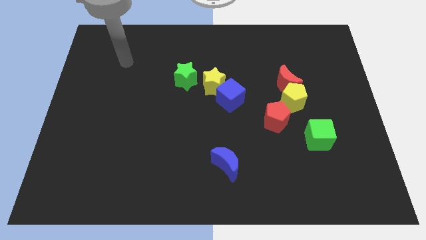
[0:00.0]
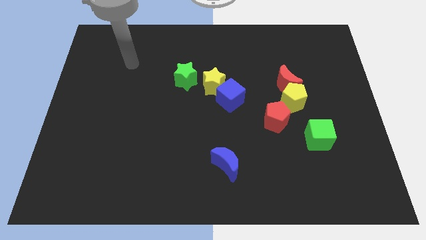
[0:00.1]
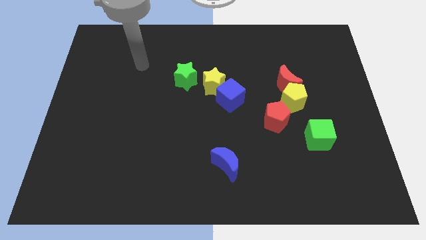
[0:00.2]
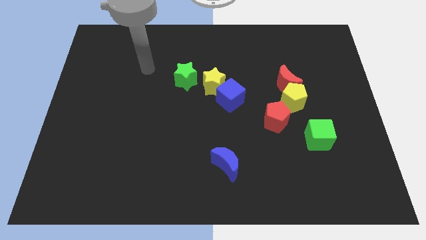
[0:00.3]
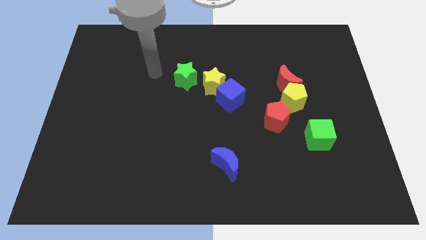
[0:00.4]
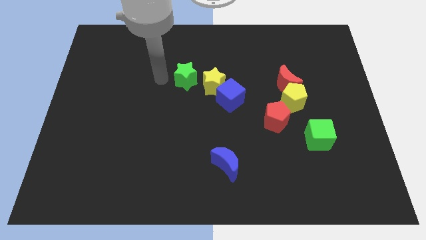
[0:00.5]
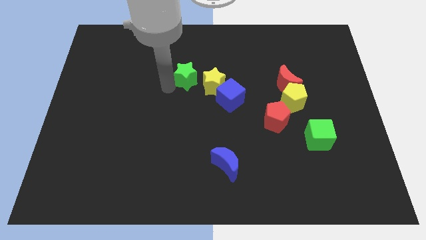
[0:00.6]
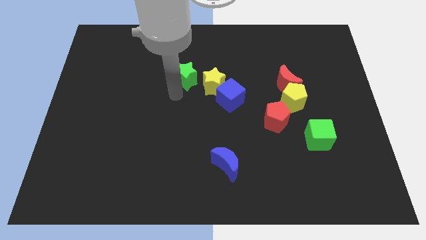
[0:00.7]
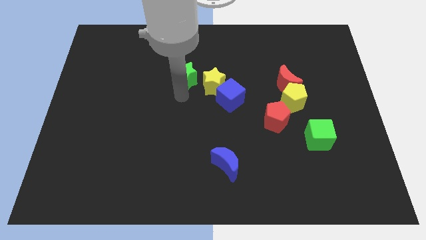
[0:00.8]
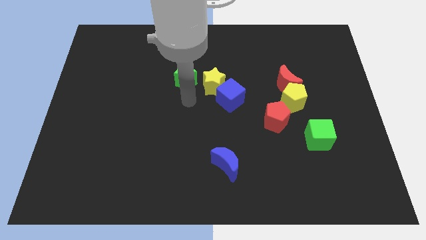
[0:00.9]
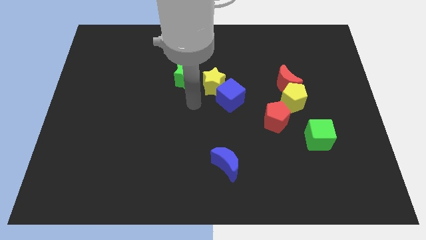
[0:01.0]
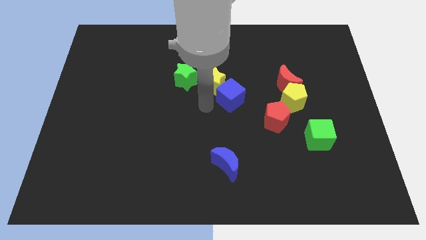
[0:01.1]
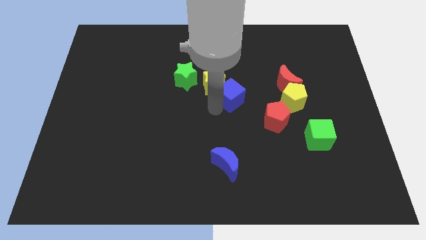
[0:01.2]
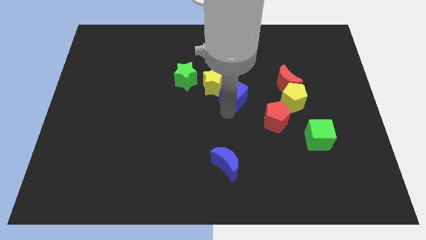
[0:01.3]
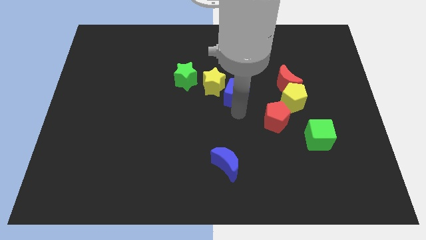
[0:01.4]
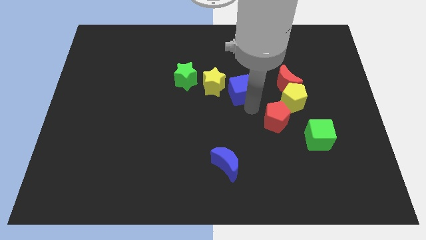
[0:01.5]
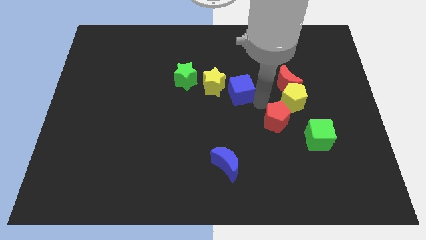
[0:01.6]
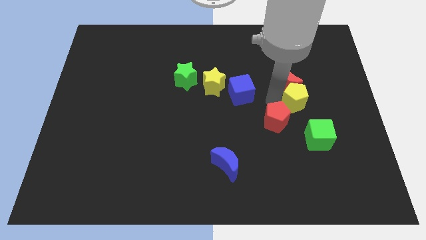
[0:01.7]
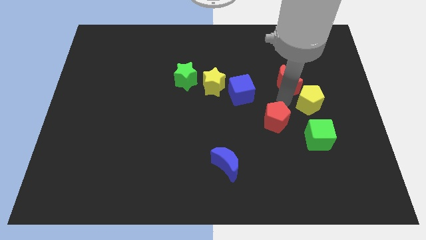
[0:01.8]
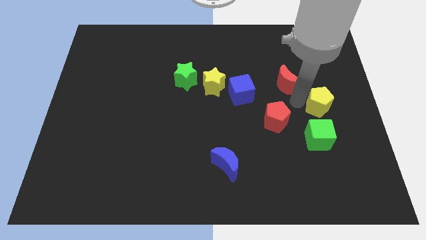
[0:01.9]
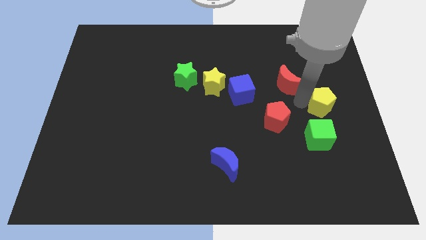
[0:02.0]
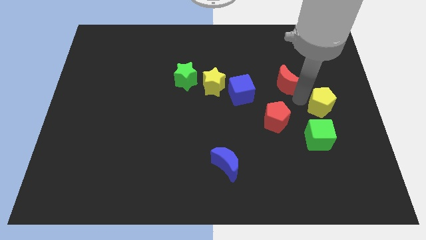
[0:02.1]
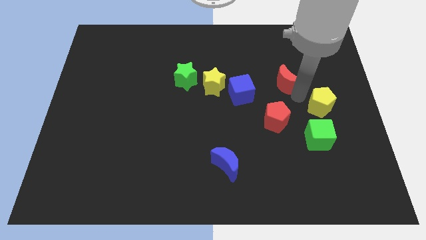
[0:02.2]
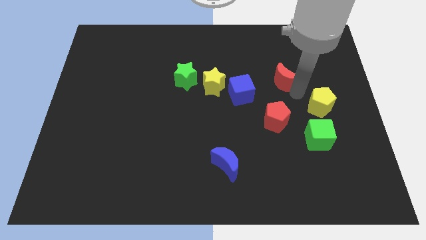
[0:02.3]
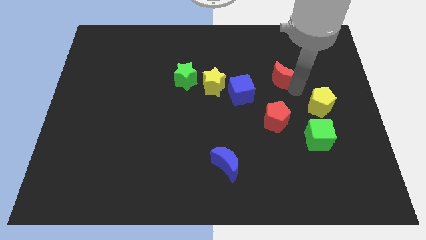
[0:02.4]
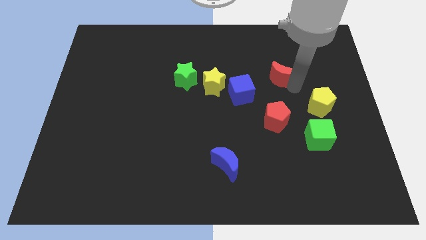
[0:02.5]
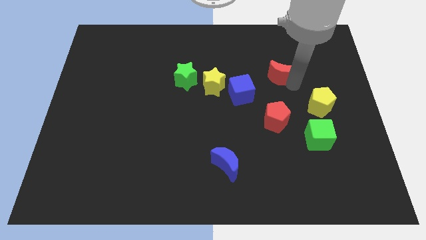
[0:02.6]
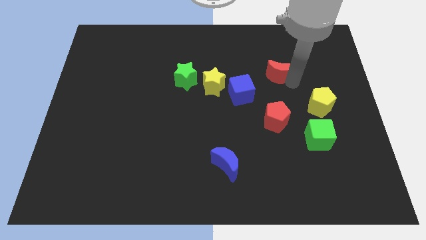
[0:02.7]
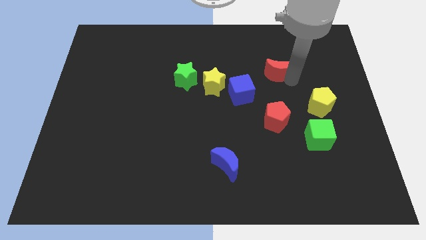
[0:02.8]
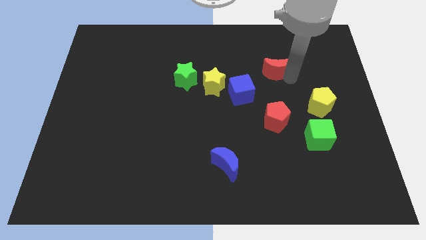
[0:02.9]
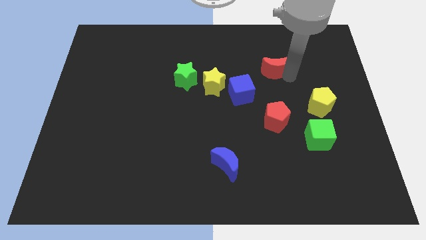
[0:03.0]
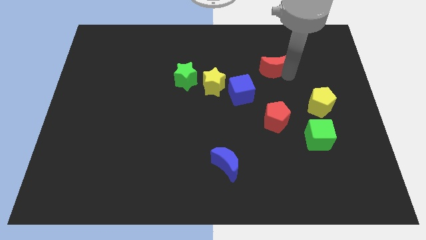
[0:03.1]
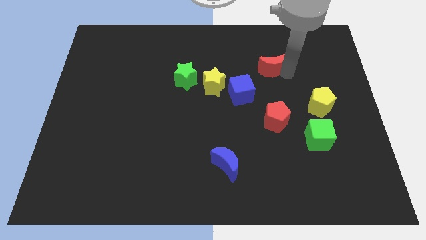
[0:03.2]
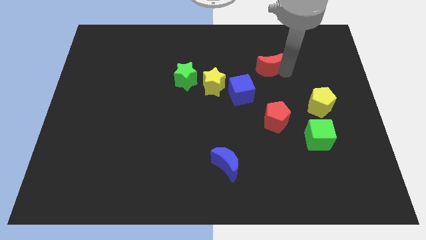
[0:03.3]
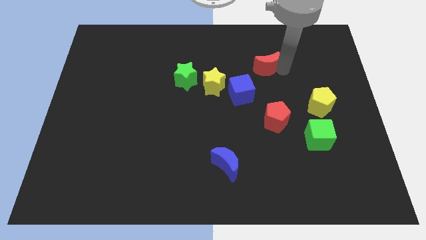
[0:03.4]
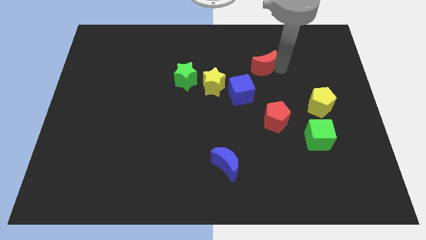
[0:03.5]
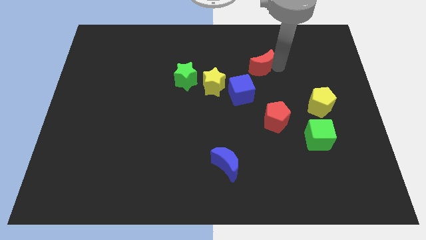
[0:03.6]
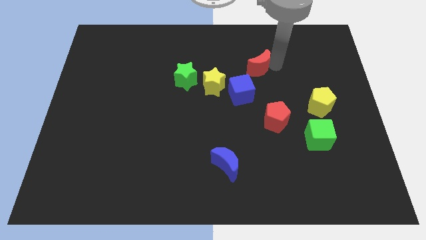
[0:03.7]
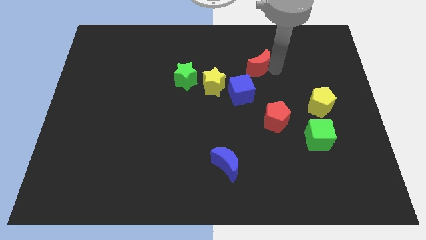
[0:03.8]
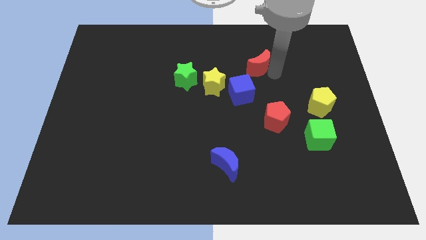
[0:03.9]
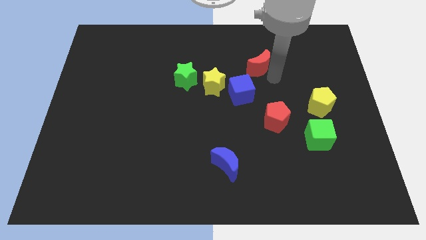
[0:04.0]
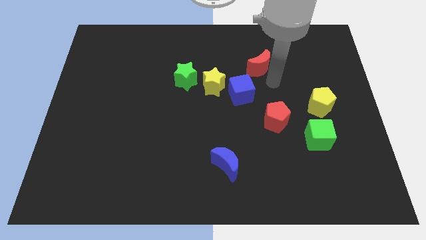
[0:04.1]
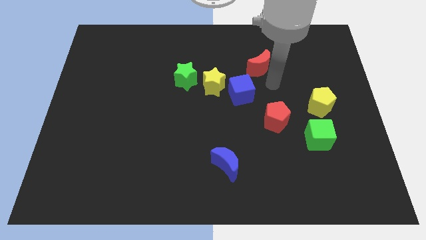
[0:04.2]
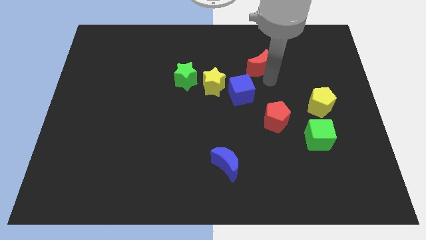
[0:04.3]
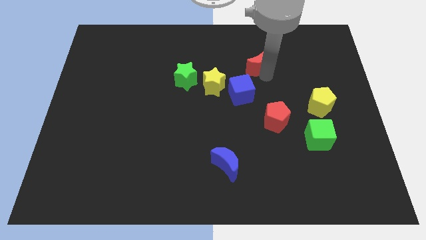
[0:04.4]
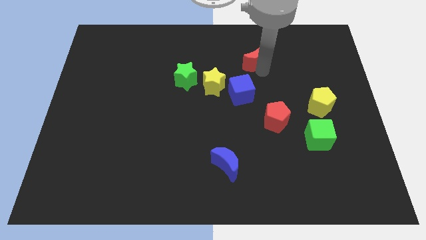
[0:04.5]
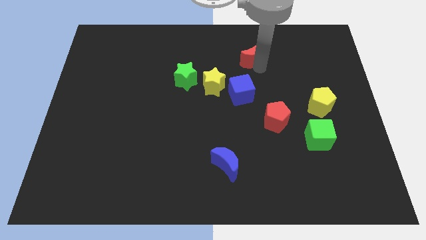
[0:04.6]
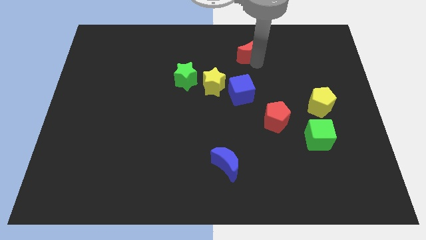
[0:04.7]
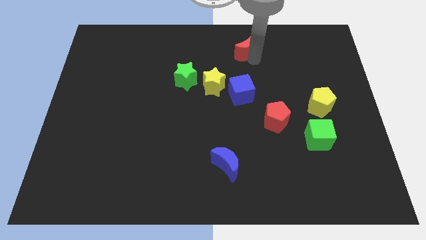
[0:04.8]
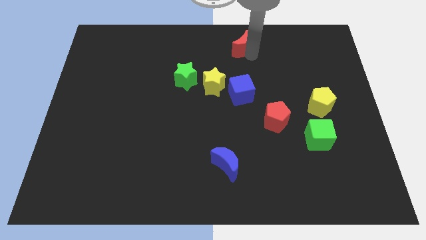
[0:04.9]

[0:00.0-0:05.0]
slide the red moon to the towards your base

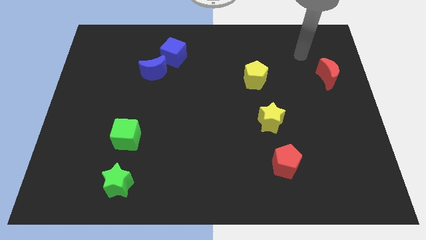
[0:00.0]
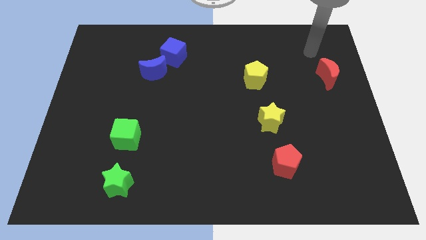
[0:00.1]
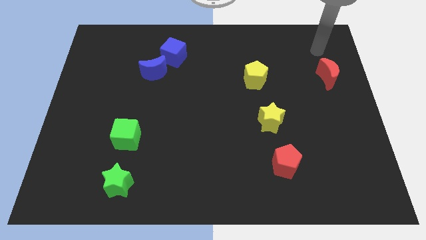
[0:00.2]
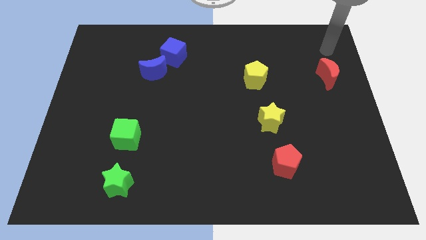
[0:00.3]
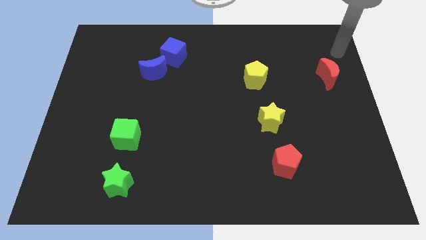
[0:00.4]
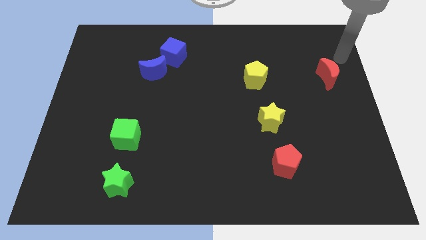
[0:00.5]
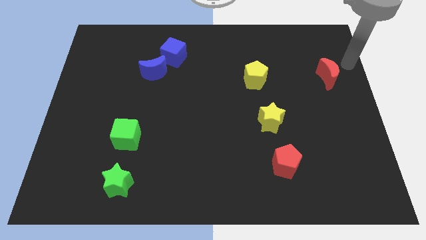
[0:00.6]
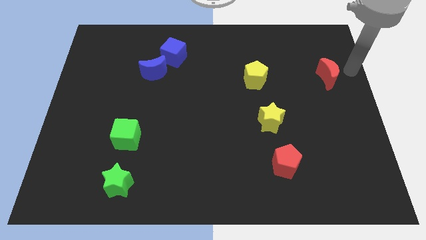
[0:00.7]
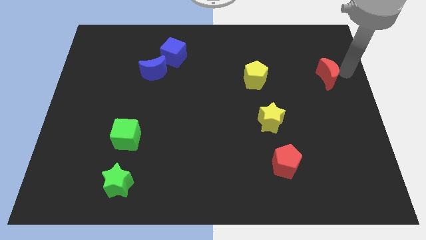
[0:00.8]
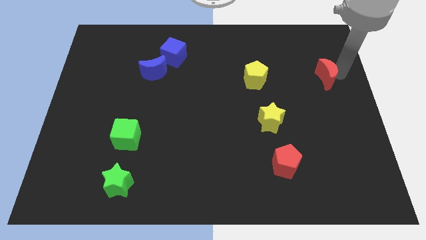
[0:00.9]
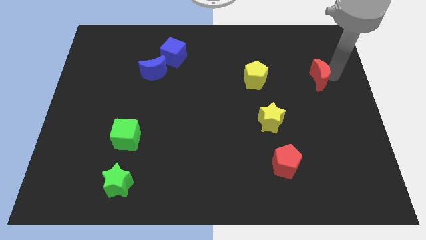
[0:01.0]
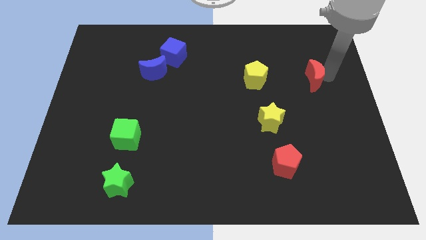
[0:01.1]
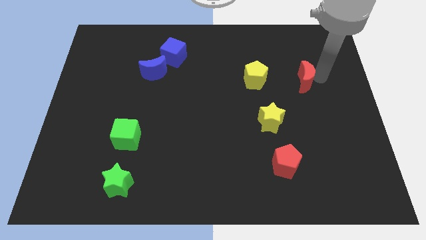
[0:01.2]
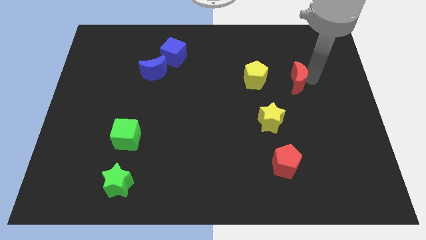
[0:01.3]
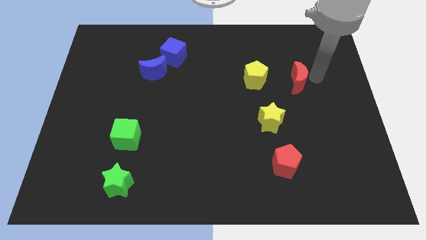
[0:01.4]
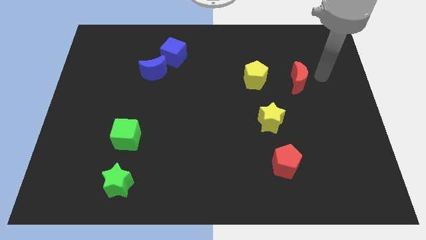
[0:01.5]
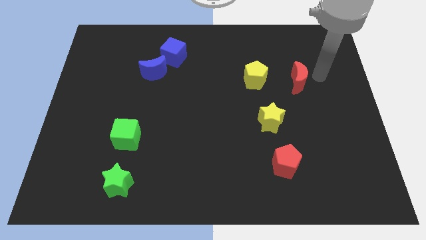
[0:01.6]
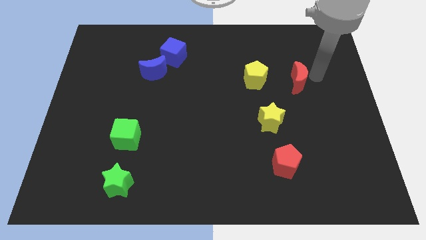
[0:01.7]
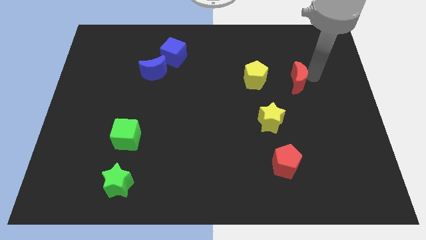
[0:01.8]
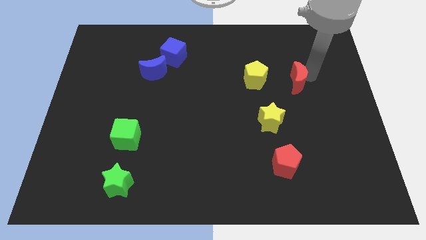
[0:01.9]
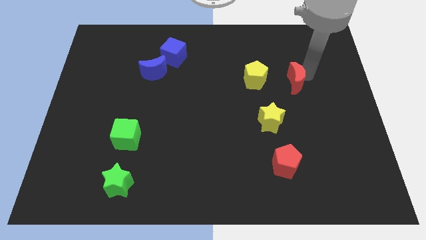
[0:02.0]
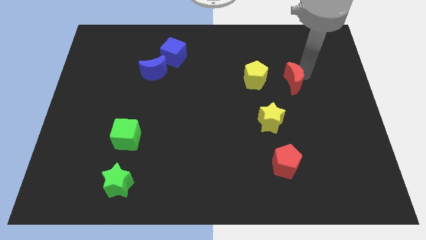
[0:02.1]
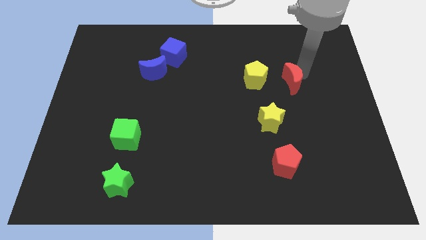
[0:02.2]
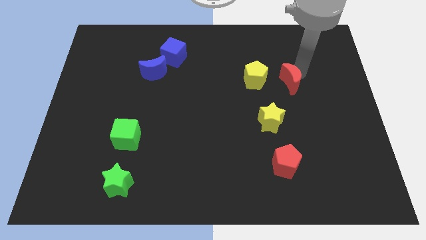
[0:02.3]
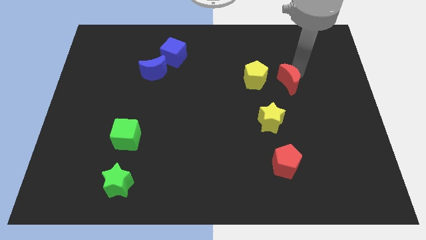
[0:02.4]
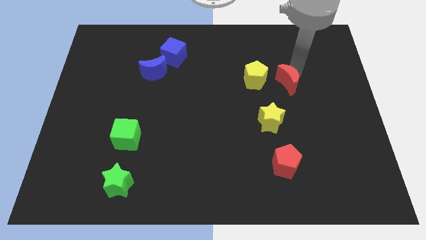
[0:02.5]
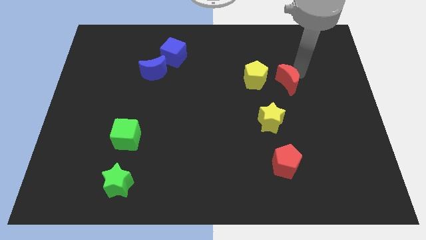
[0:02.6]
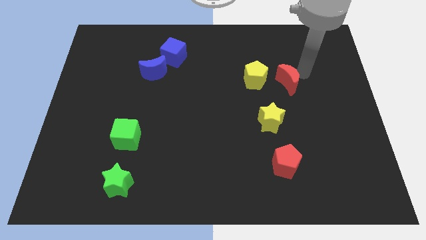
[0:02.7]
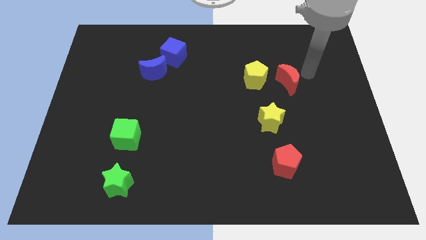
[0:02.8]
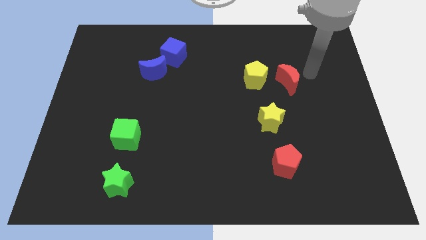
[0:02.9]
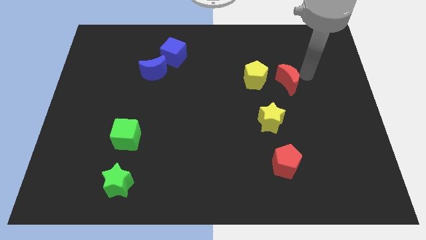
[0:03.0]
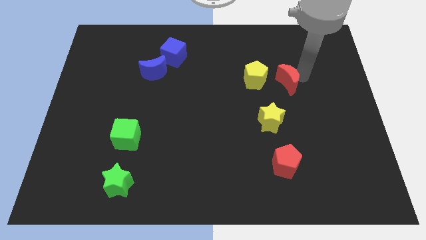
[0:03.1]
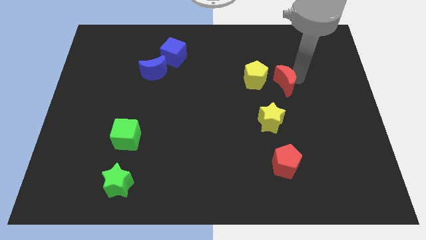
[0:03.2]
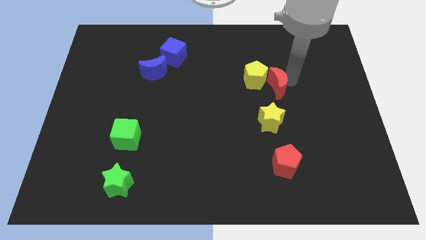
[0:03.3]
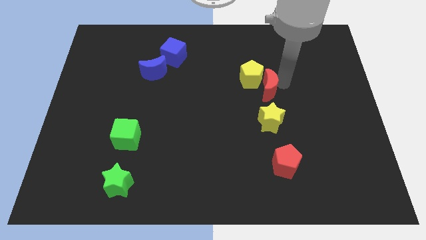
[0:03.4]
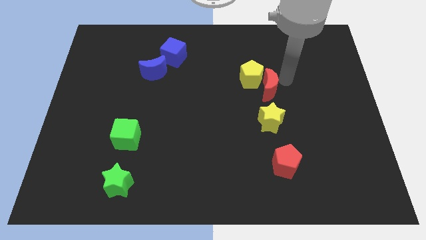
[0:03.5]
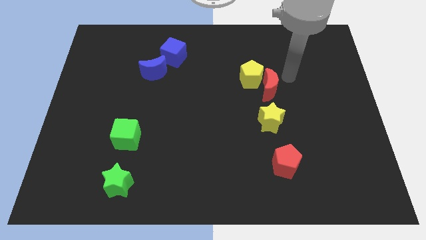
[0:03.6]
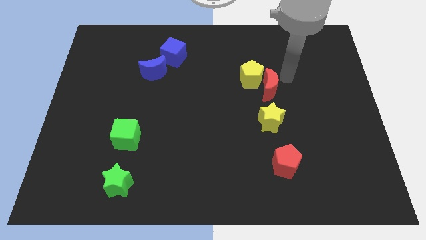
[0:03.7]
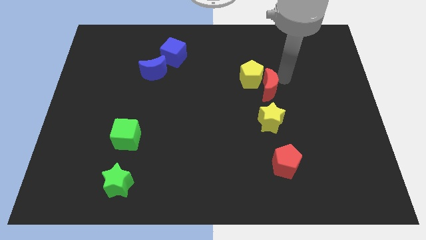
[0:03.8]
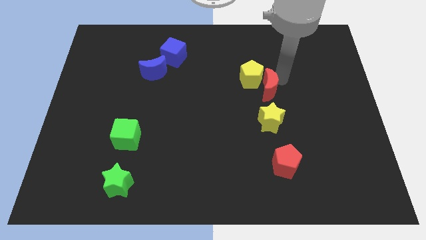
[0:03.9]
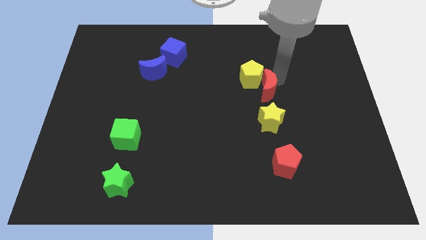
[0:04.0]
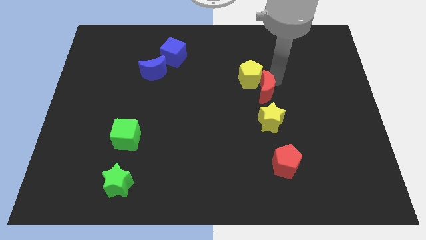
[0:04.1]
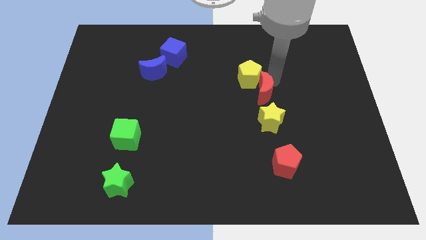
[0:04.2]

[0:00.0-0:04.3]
push the red moon to the center of the board
